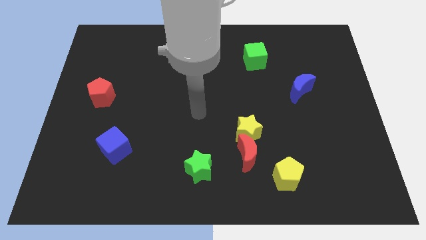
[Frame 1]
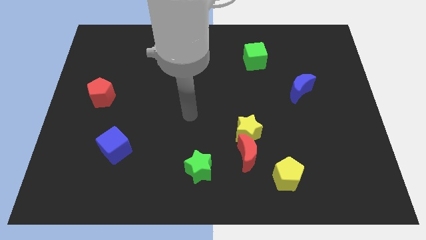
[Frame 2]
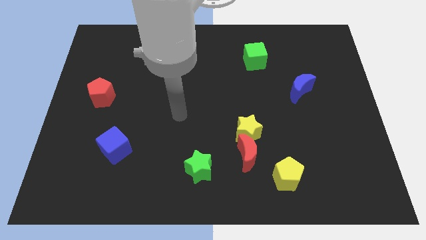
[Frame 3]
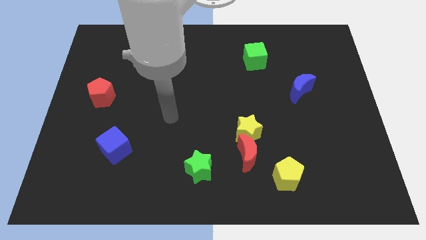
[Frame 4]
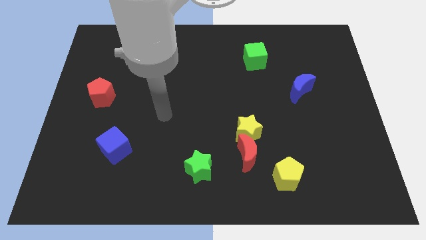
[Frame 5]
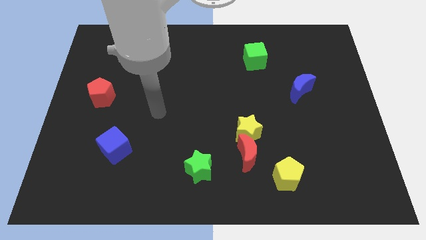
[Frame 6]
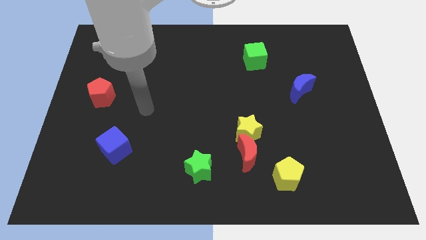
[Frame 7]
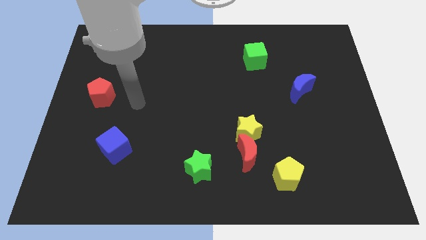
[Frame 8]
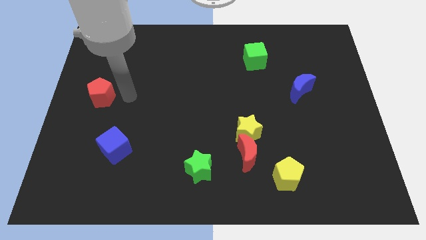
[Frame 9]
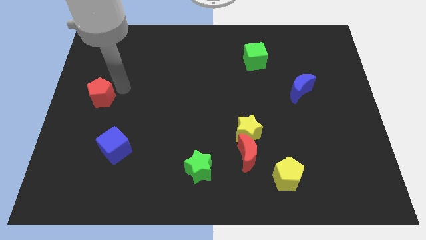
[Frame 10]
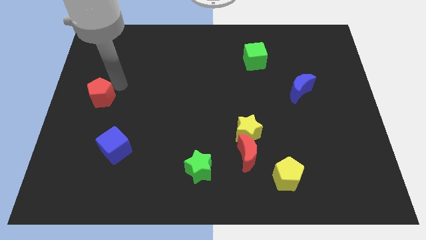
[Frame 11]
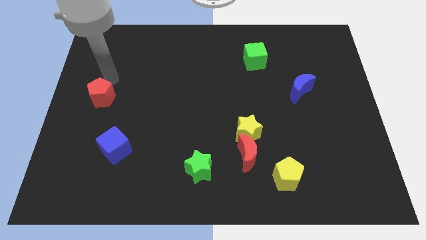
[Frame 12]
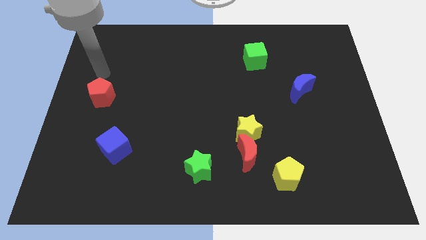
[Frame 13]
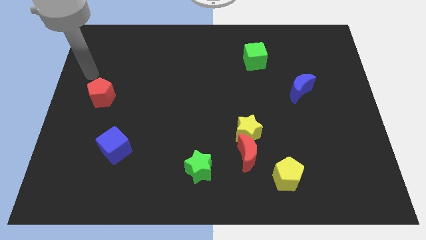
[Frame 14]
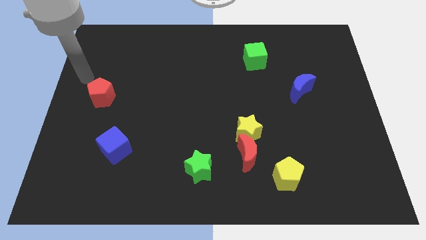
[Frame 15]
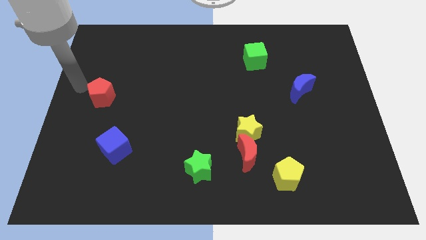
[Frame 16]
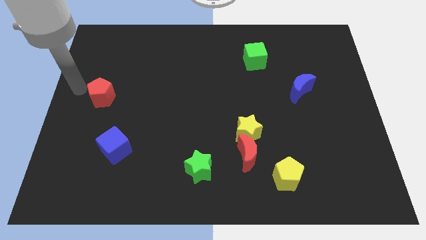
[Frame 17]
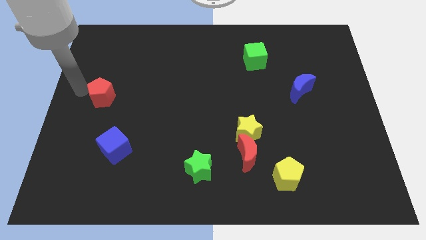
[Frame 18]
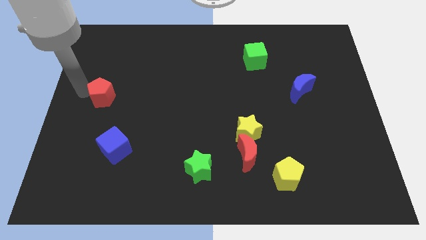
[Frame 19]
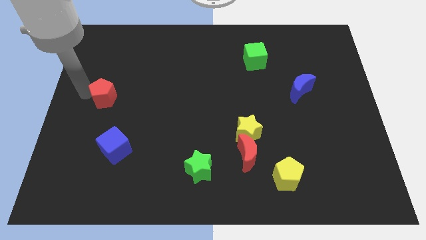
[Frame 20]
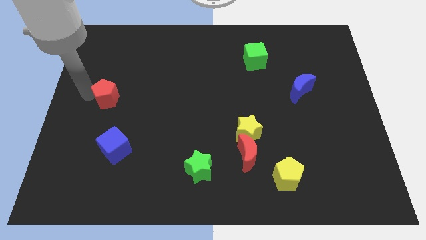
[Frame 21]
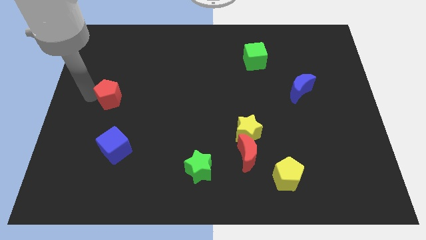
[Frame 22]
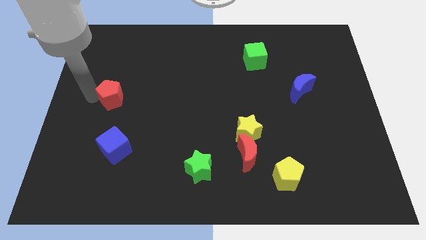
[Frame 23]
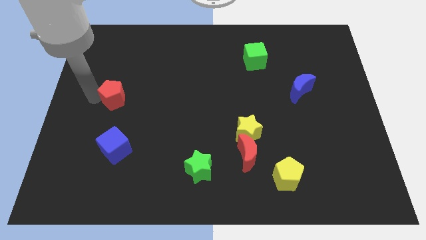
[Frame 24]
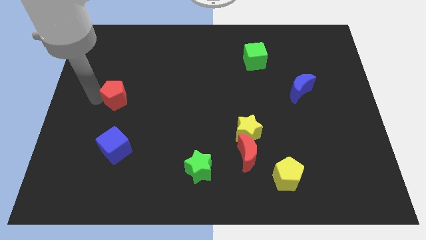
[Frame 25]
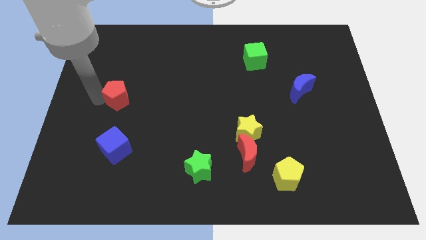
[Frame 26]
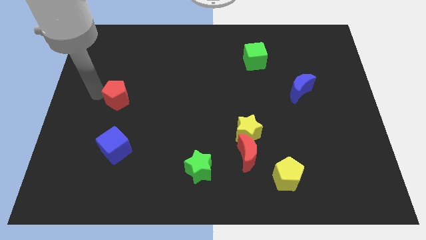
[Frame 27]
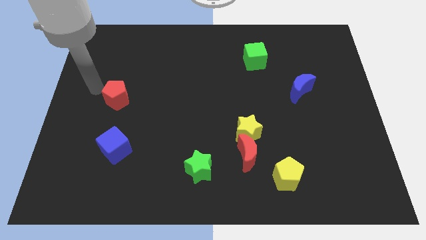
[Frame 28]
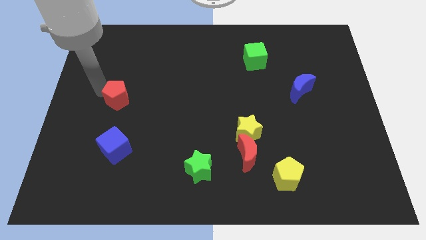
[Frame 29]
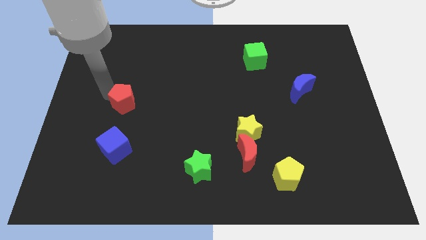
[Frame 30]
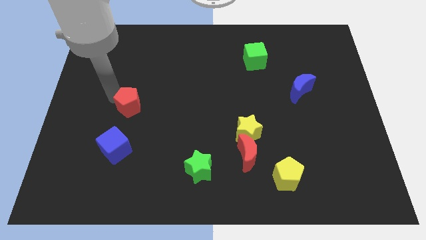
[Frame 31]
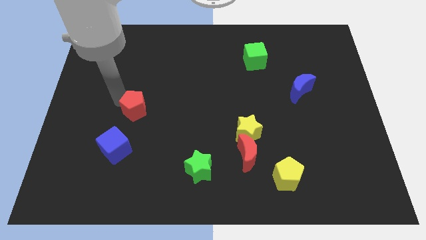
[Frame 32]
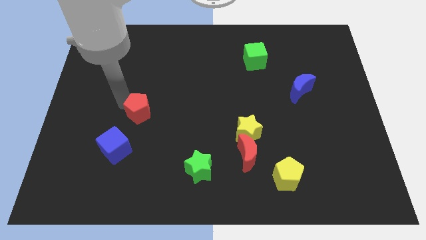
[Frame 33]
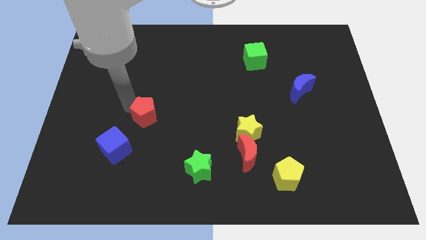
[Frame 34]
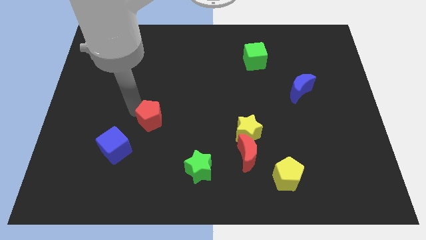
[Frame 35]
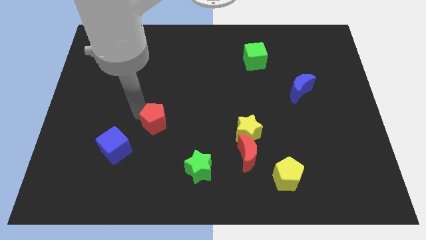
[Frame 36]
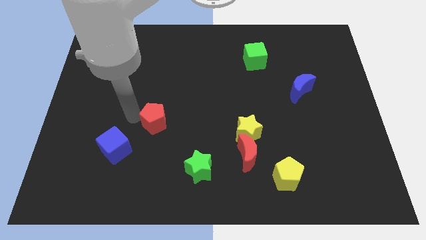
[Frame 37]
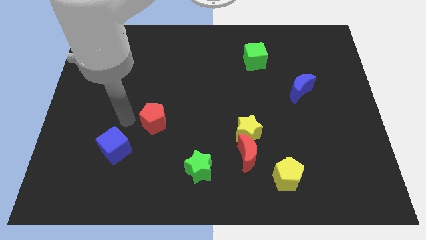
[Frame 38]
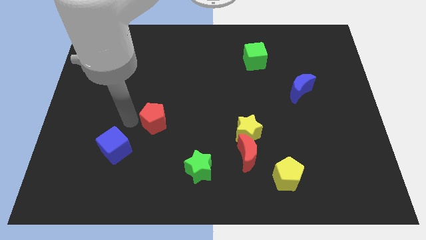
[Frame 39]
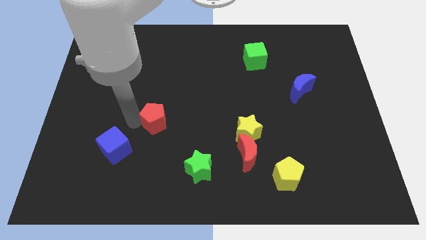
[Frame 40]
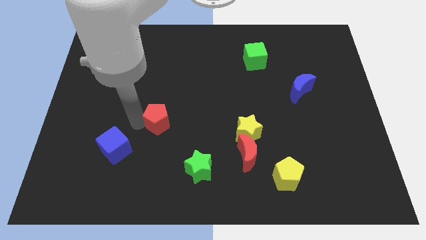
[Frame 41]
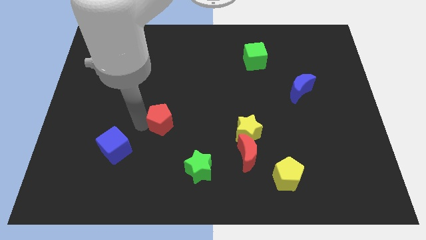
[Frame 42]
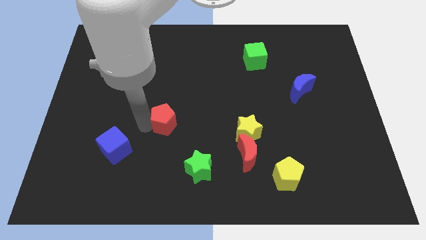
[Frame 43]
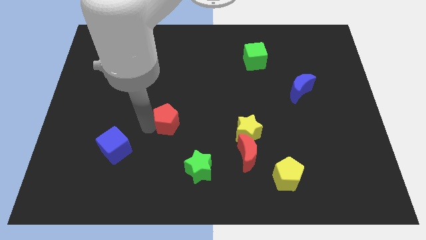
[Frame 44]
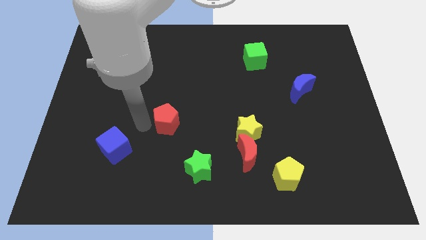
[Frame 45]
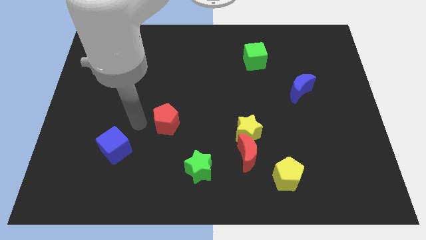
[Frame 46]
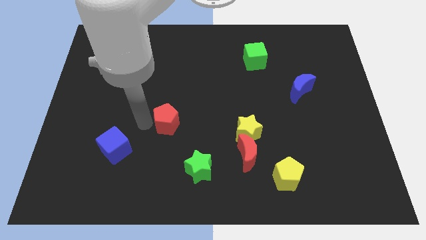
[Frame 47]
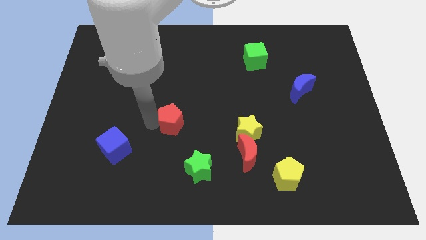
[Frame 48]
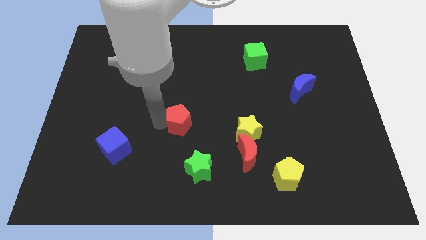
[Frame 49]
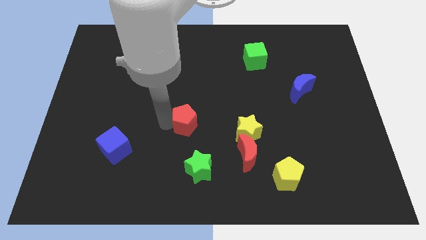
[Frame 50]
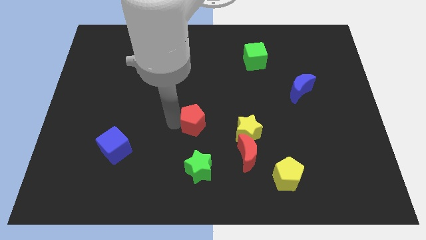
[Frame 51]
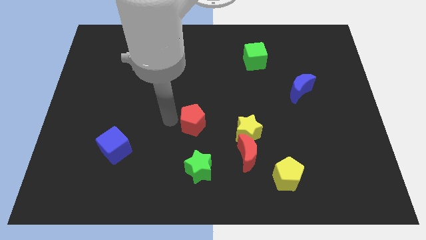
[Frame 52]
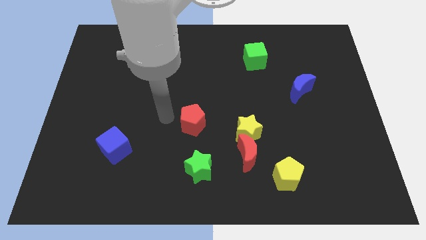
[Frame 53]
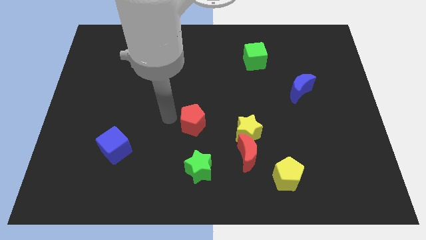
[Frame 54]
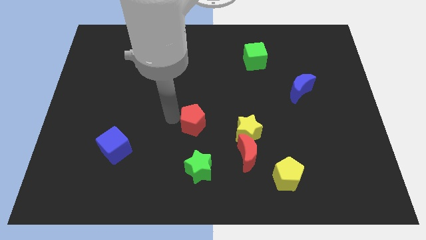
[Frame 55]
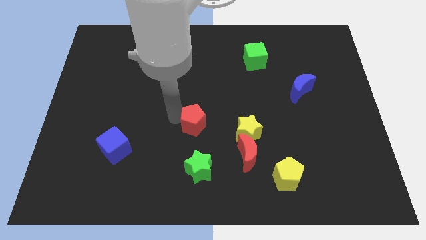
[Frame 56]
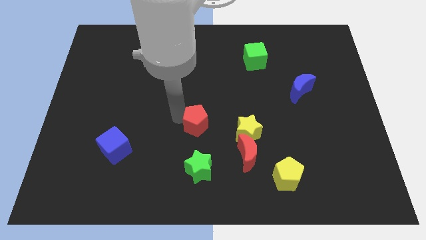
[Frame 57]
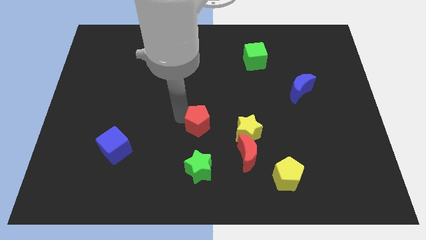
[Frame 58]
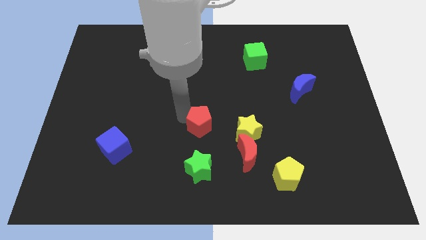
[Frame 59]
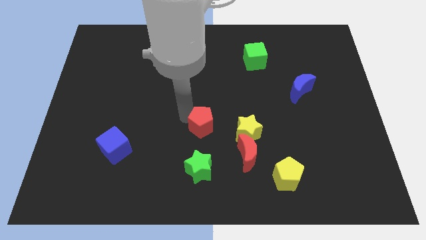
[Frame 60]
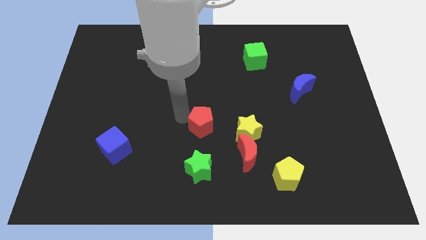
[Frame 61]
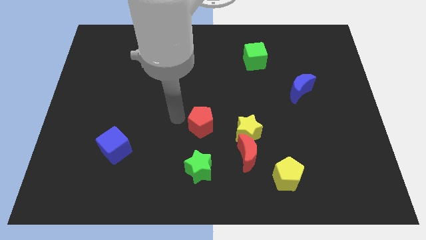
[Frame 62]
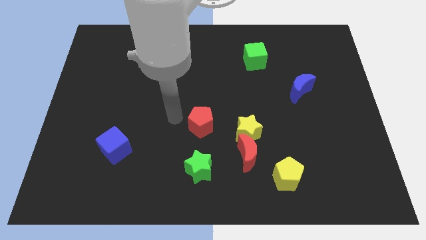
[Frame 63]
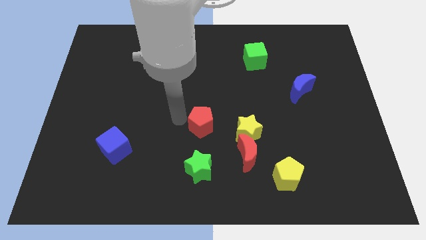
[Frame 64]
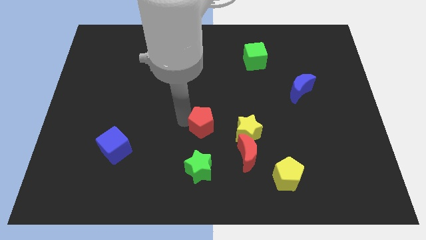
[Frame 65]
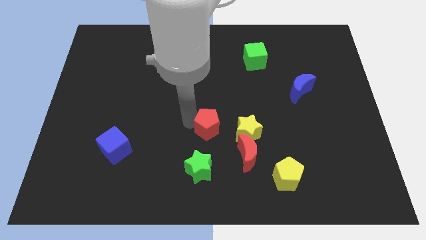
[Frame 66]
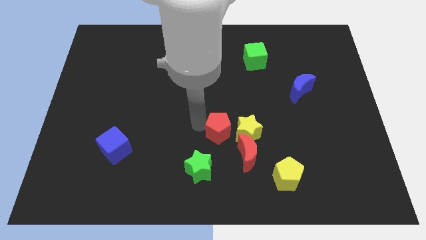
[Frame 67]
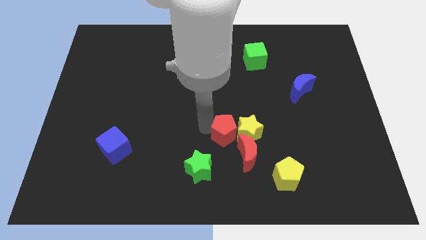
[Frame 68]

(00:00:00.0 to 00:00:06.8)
move the red pentagon towards the yellow star

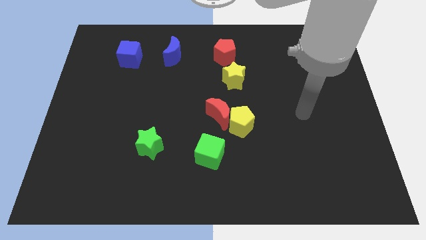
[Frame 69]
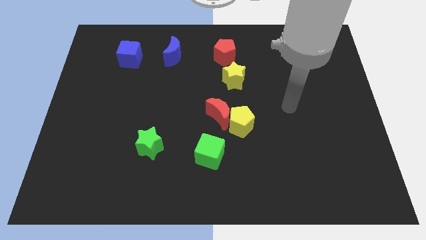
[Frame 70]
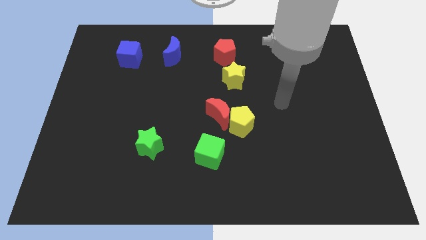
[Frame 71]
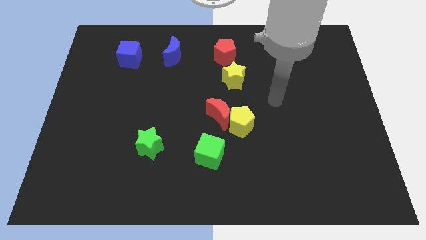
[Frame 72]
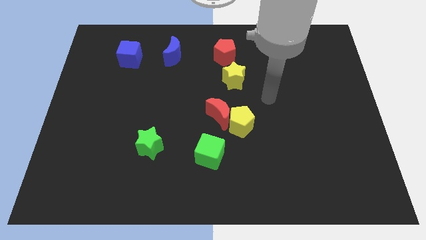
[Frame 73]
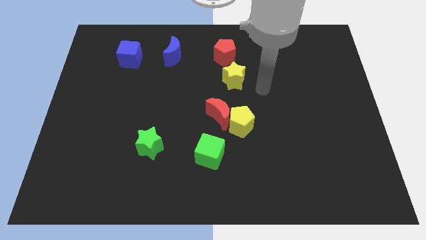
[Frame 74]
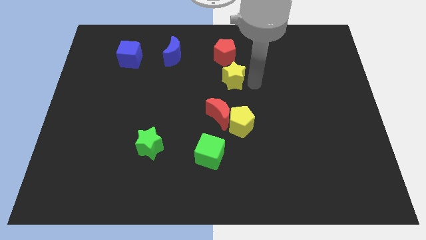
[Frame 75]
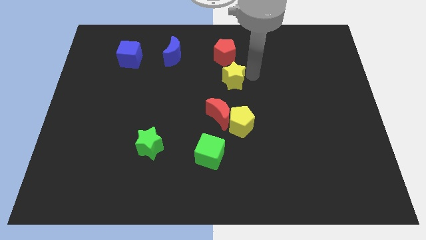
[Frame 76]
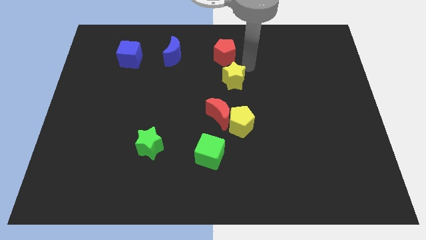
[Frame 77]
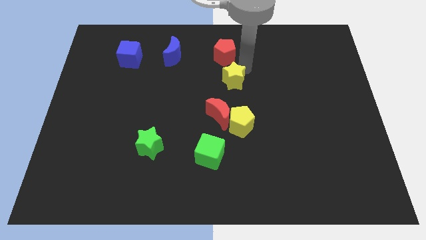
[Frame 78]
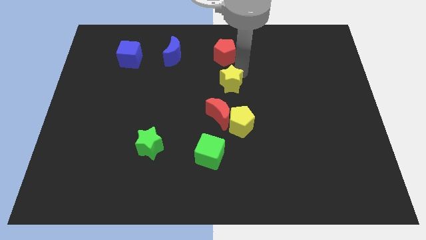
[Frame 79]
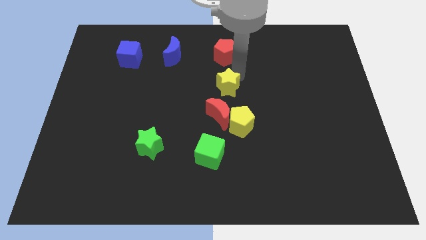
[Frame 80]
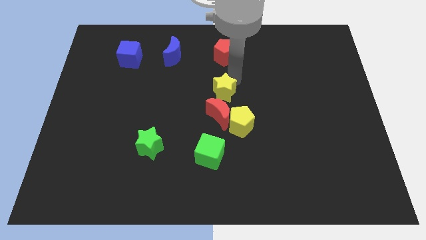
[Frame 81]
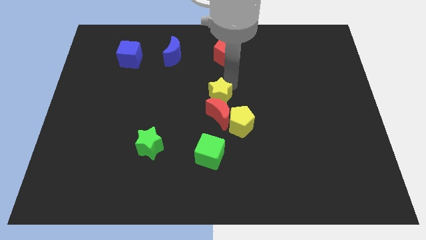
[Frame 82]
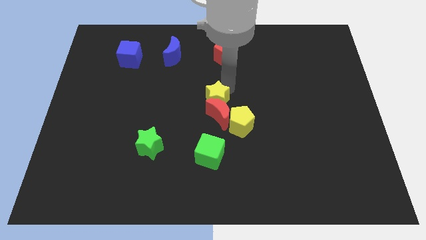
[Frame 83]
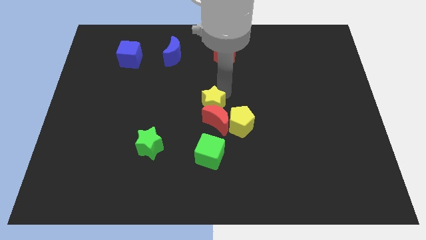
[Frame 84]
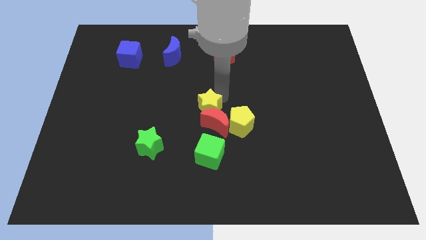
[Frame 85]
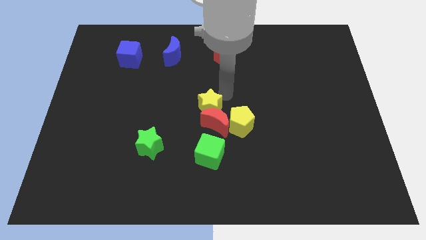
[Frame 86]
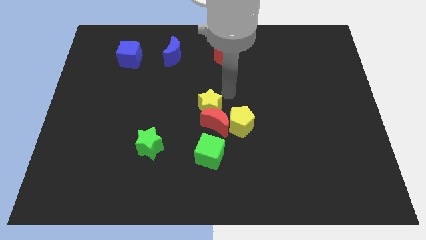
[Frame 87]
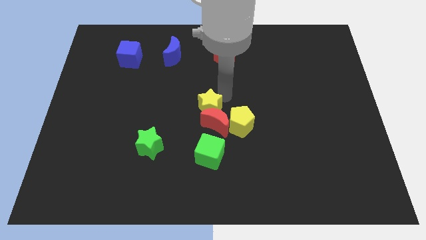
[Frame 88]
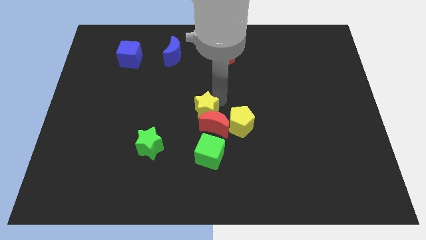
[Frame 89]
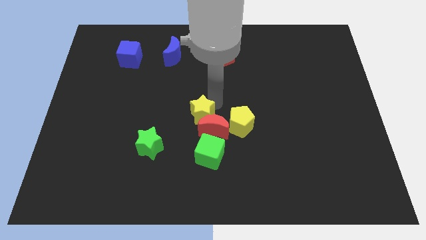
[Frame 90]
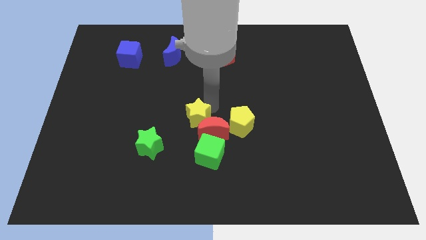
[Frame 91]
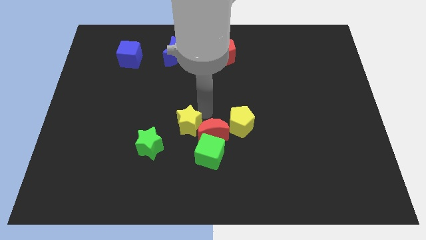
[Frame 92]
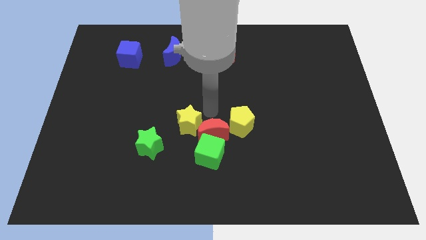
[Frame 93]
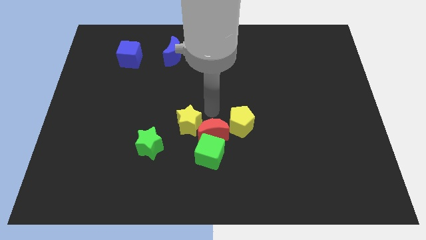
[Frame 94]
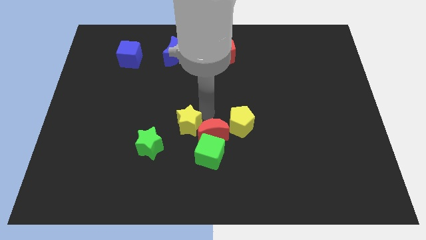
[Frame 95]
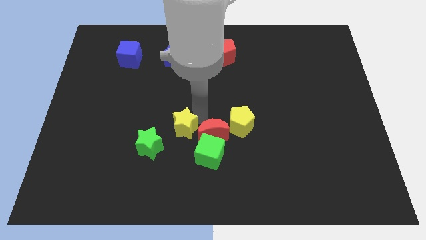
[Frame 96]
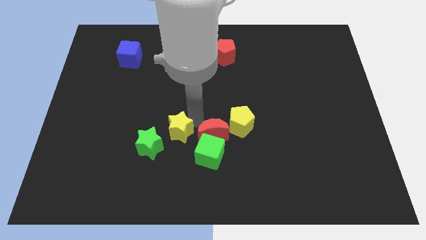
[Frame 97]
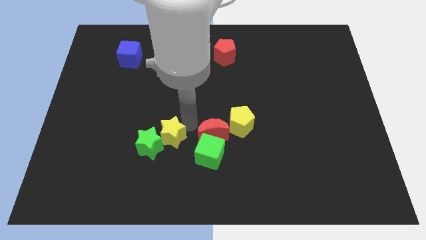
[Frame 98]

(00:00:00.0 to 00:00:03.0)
move the yellow star next to the green star
